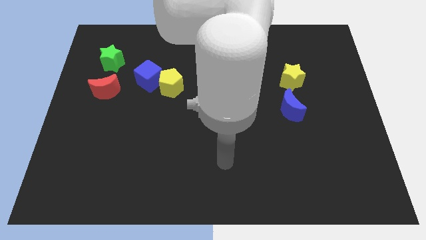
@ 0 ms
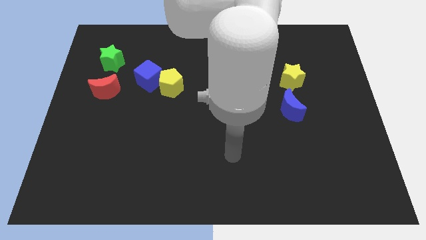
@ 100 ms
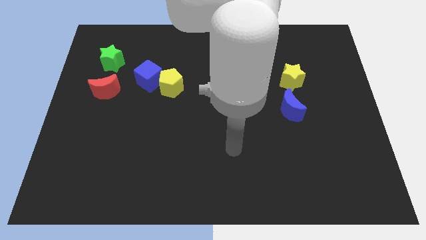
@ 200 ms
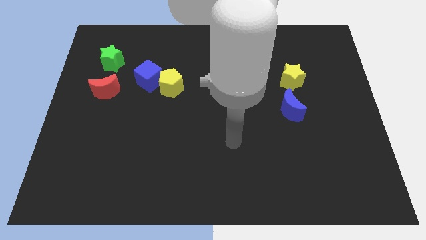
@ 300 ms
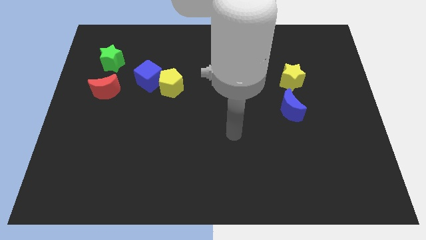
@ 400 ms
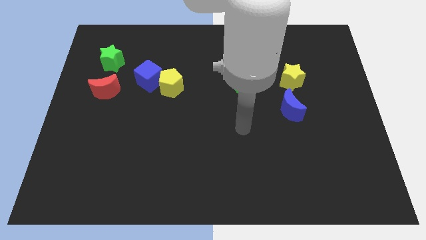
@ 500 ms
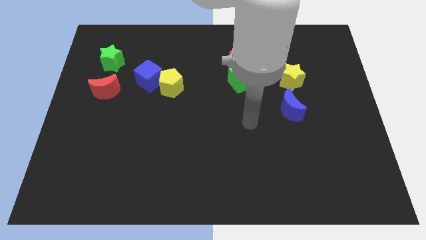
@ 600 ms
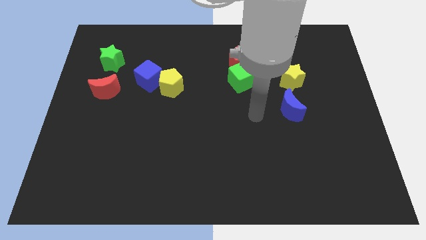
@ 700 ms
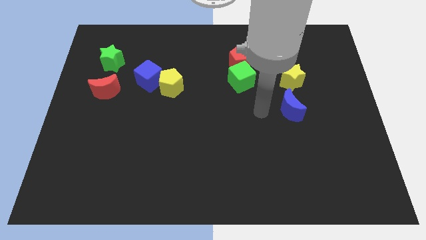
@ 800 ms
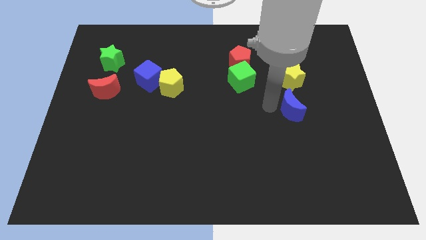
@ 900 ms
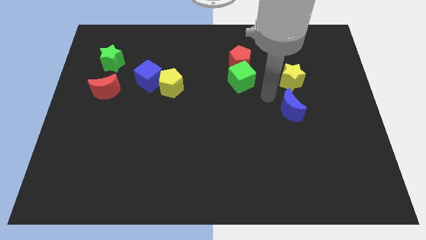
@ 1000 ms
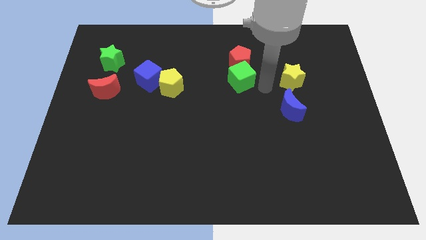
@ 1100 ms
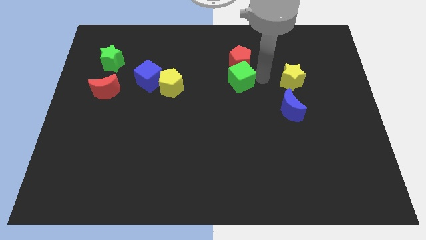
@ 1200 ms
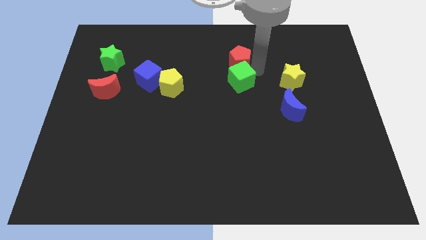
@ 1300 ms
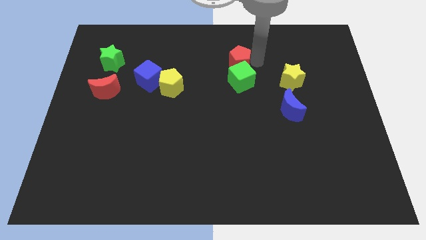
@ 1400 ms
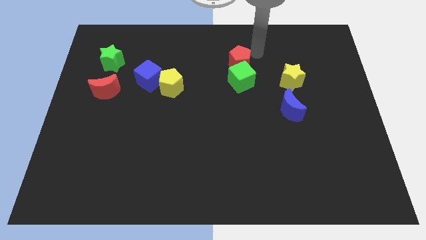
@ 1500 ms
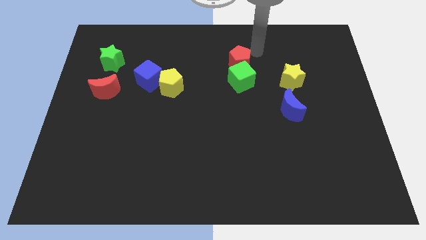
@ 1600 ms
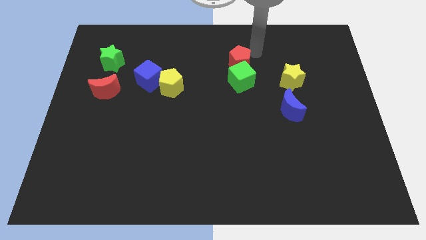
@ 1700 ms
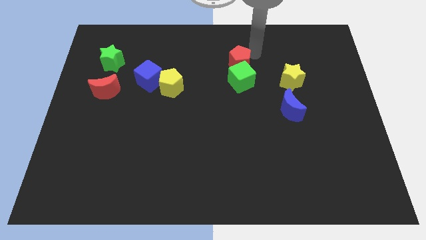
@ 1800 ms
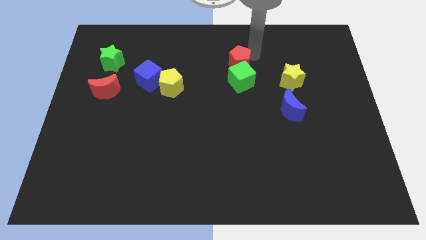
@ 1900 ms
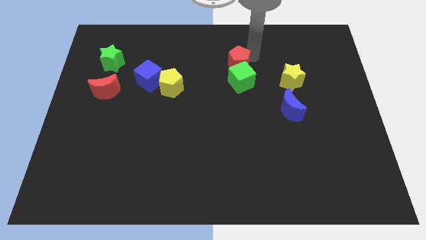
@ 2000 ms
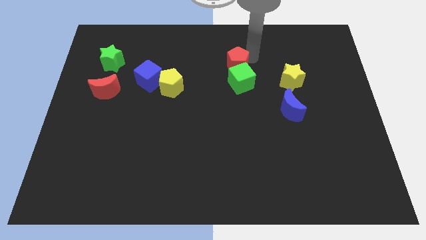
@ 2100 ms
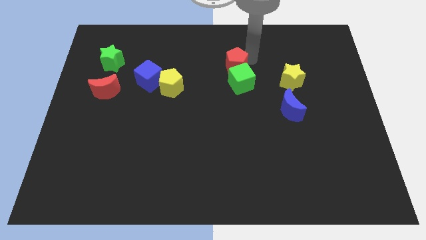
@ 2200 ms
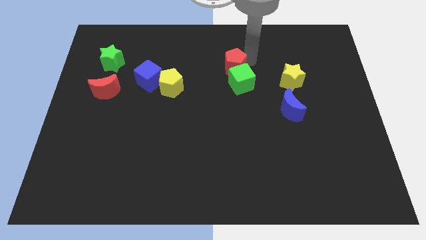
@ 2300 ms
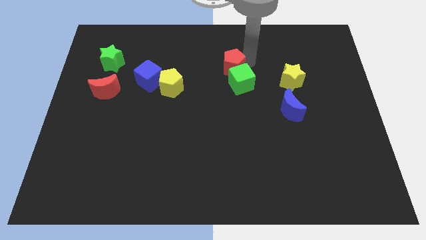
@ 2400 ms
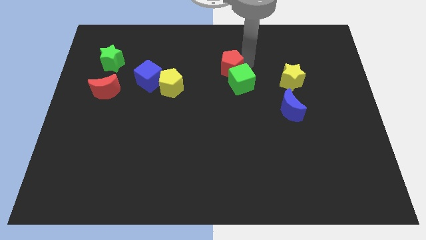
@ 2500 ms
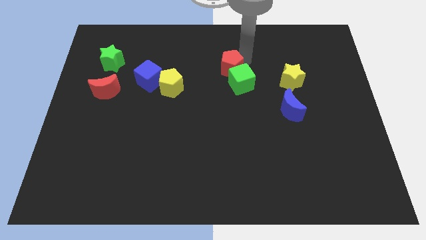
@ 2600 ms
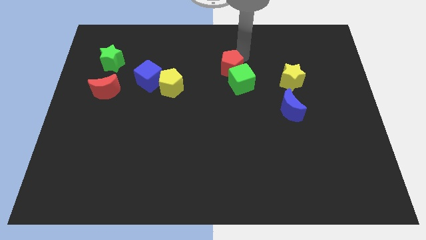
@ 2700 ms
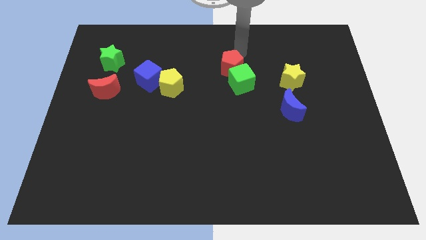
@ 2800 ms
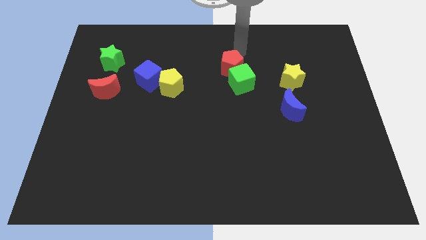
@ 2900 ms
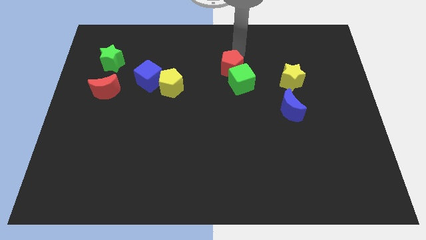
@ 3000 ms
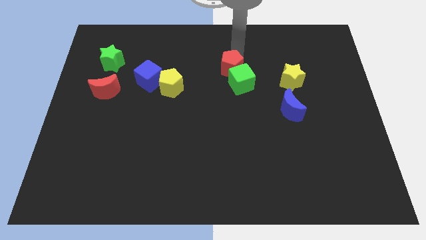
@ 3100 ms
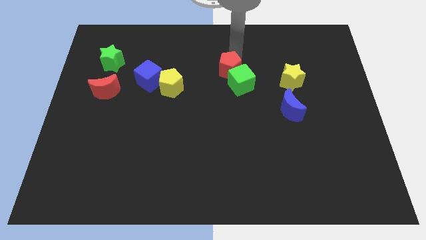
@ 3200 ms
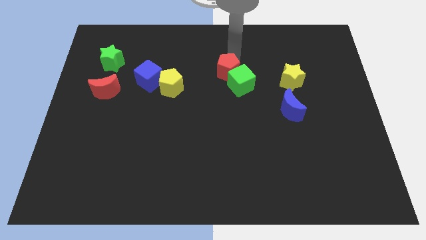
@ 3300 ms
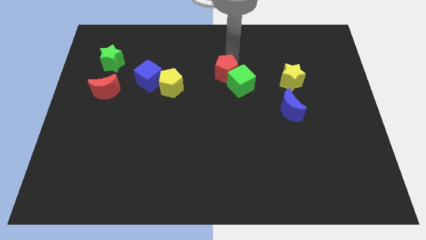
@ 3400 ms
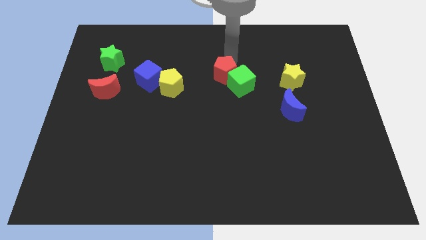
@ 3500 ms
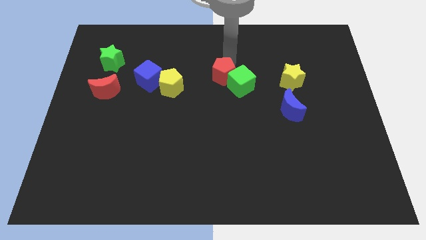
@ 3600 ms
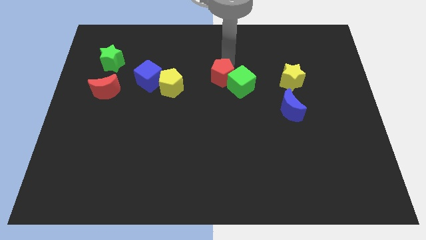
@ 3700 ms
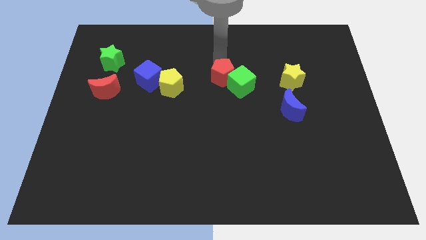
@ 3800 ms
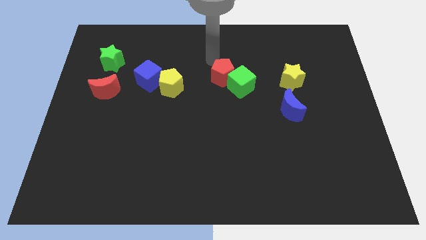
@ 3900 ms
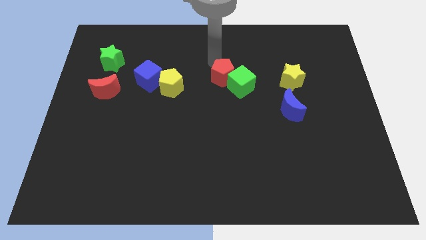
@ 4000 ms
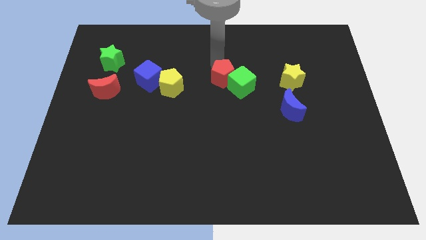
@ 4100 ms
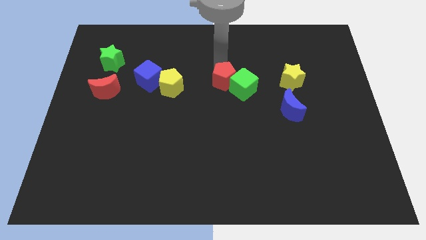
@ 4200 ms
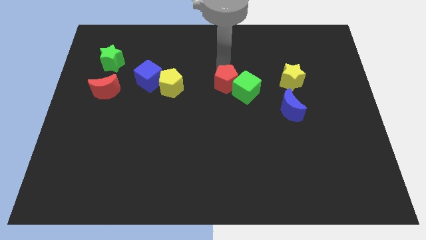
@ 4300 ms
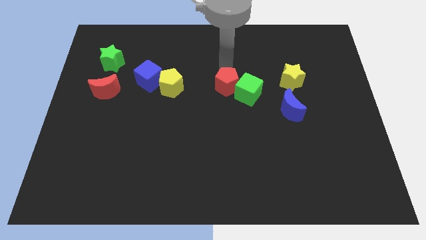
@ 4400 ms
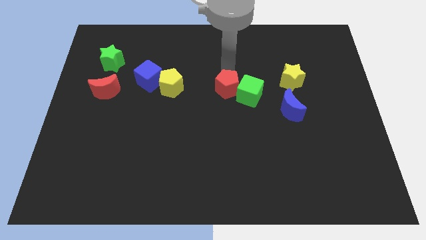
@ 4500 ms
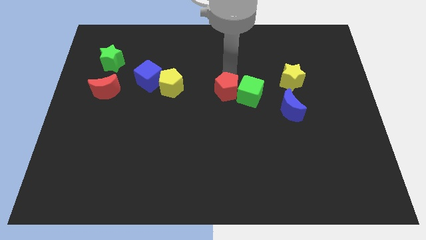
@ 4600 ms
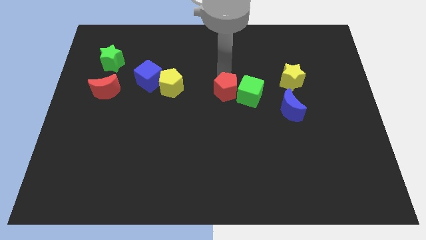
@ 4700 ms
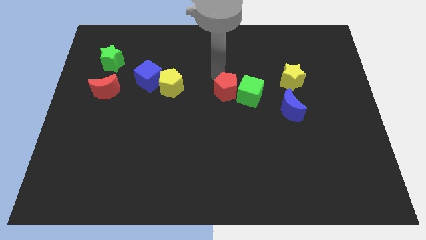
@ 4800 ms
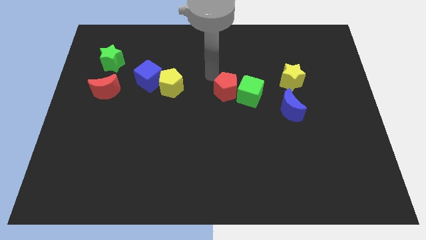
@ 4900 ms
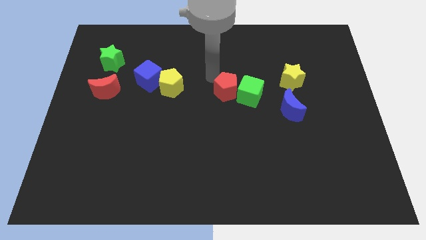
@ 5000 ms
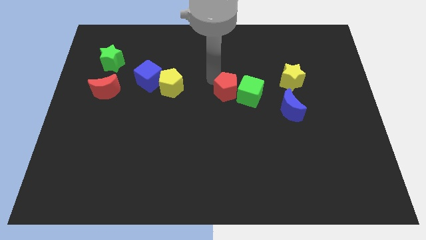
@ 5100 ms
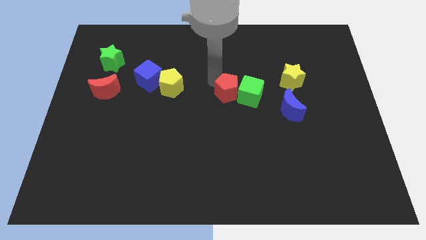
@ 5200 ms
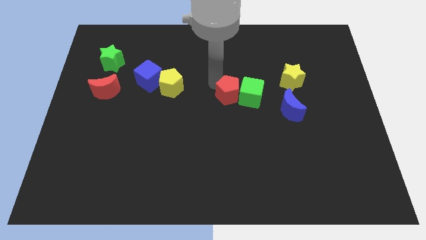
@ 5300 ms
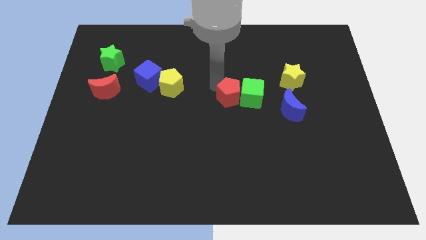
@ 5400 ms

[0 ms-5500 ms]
move the red pentagon to the left of the blue moon

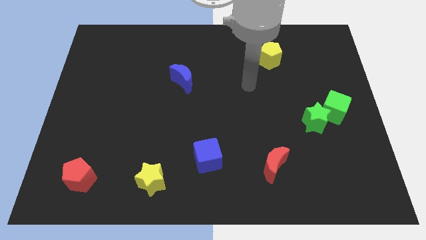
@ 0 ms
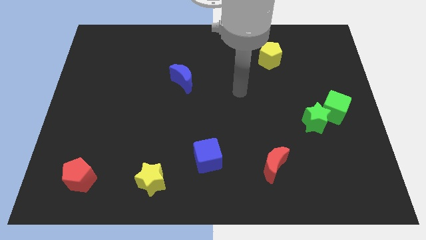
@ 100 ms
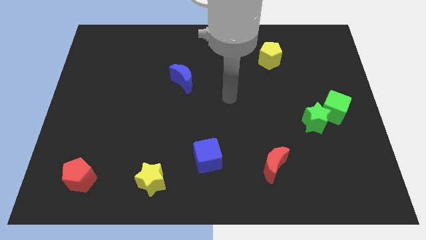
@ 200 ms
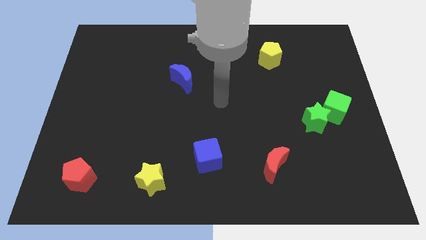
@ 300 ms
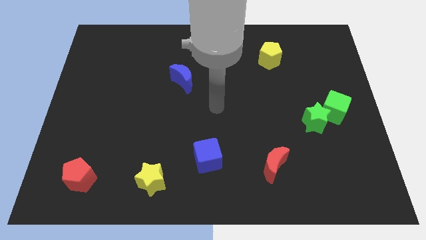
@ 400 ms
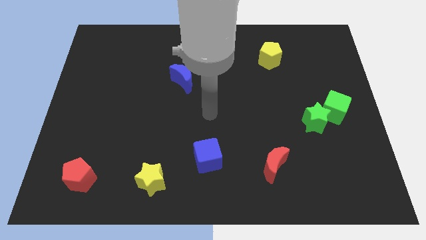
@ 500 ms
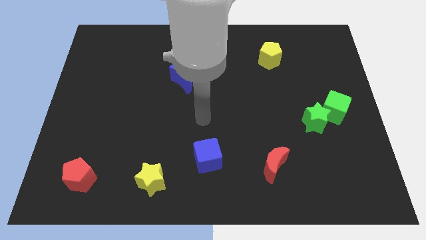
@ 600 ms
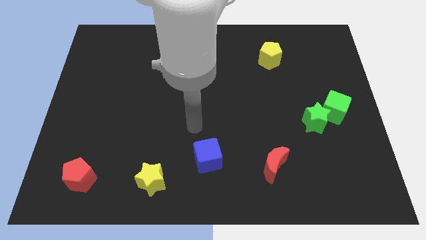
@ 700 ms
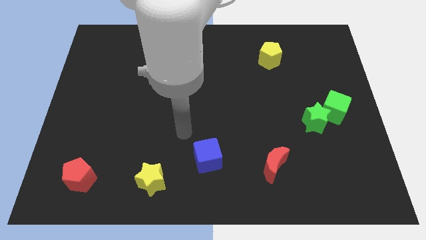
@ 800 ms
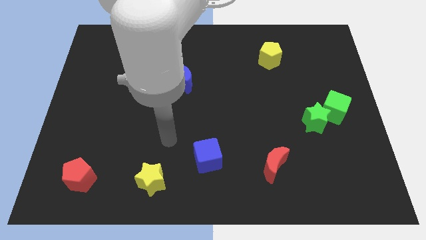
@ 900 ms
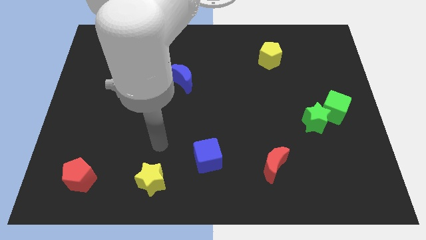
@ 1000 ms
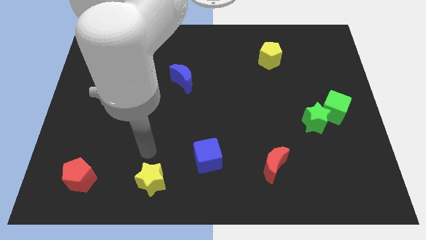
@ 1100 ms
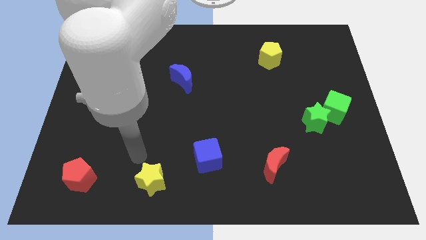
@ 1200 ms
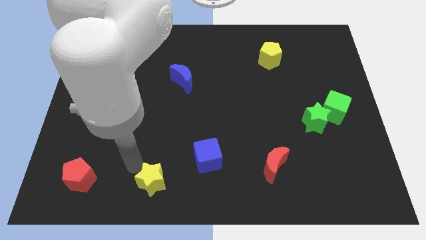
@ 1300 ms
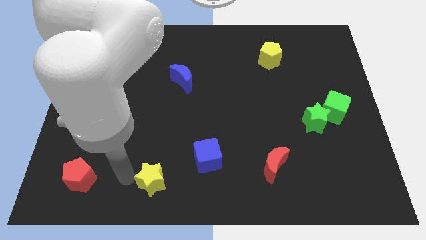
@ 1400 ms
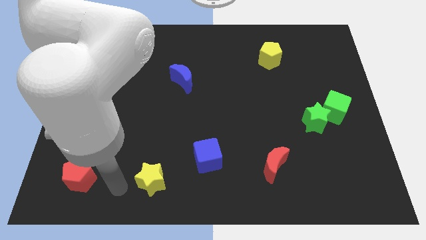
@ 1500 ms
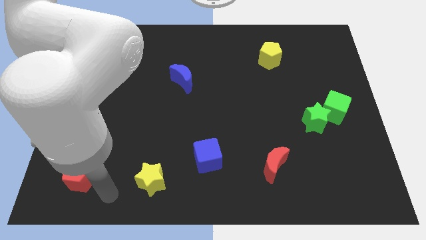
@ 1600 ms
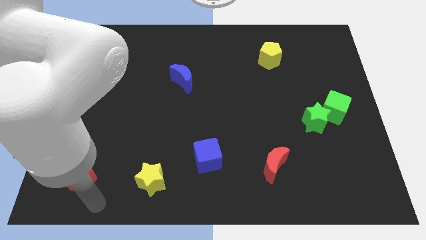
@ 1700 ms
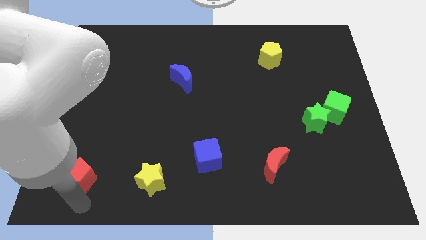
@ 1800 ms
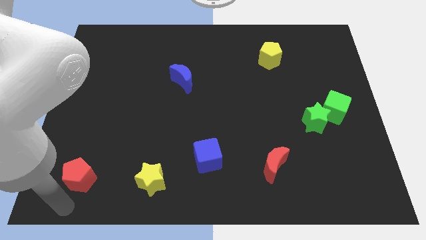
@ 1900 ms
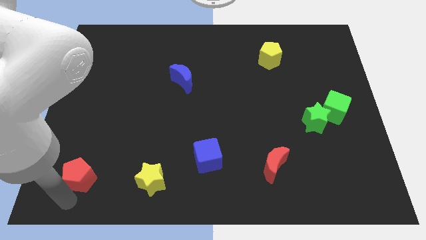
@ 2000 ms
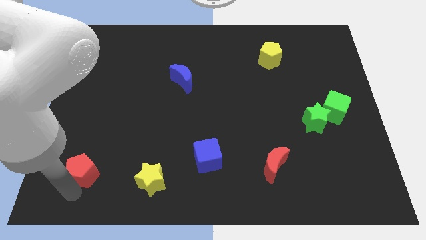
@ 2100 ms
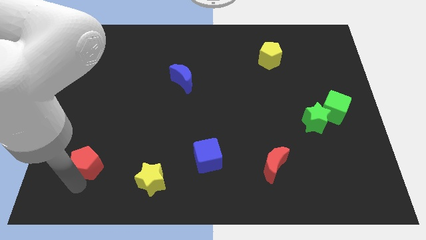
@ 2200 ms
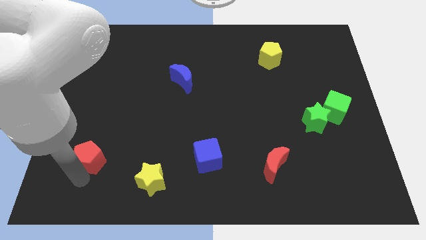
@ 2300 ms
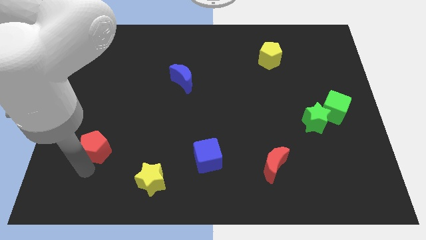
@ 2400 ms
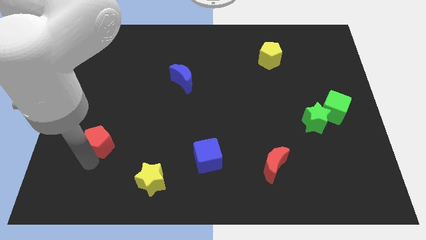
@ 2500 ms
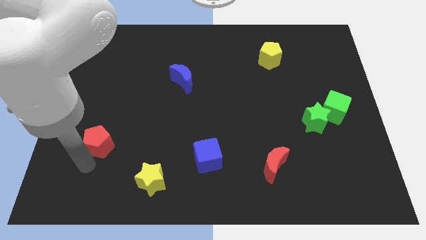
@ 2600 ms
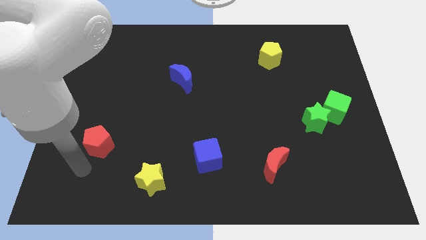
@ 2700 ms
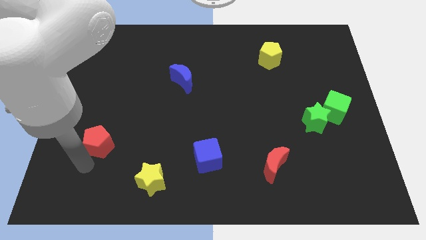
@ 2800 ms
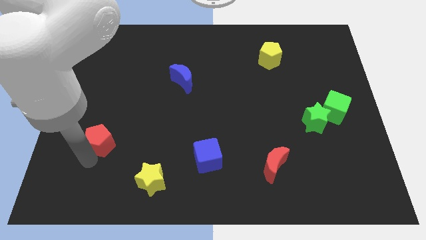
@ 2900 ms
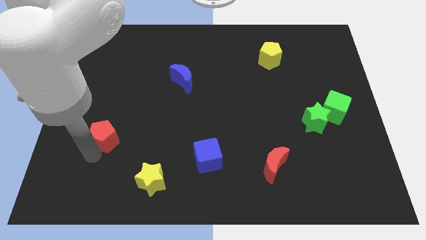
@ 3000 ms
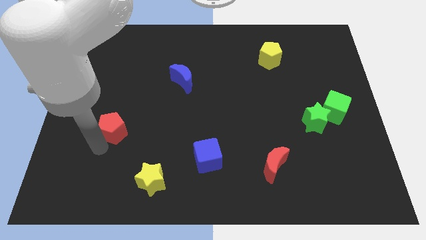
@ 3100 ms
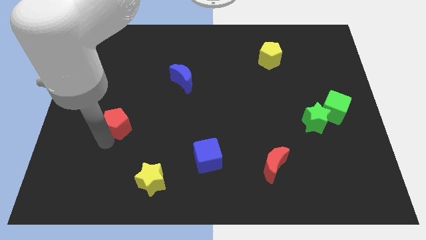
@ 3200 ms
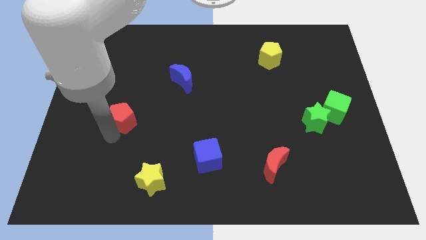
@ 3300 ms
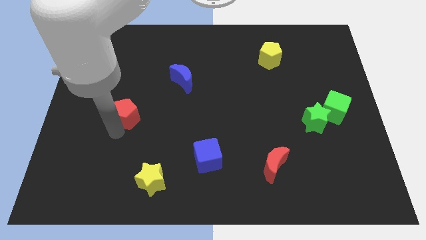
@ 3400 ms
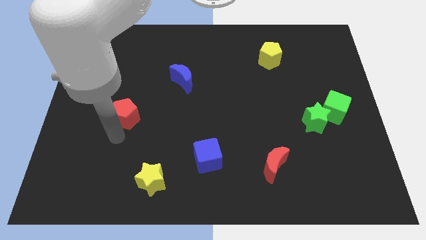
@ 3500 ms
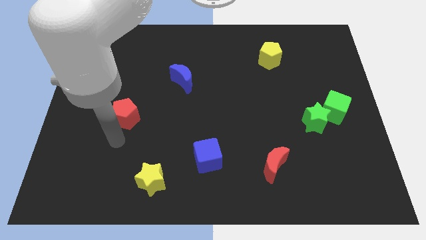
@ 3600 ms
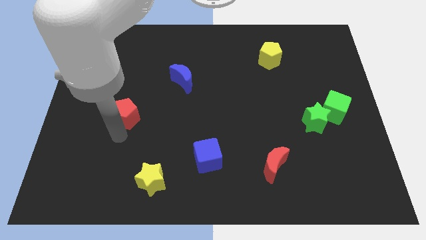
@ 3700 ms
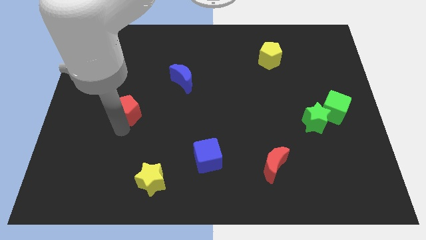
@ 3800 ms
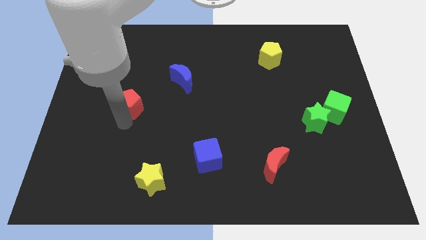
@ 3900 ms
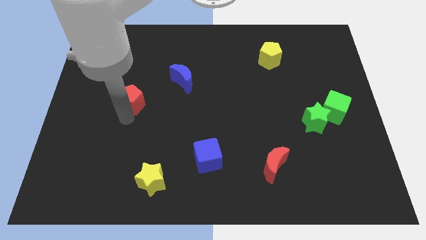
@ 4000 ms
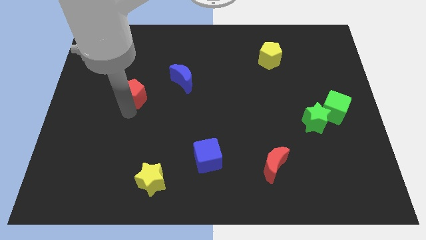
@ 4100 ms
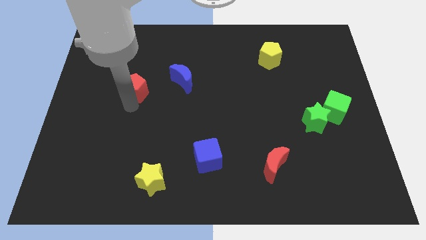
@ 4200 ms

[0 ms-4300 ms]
move the red pentagon just left of the blue moon
